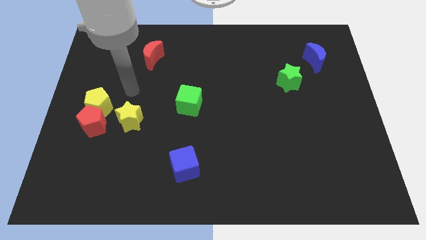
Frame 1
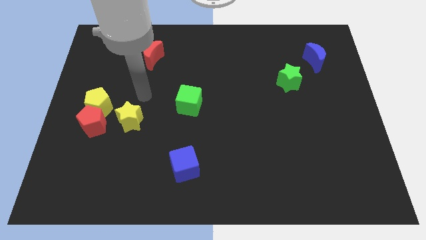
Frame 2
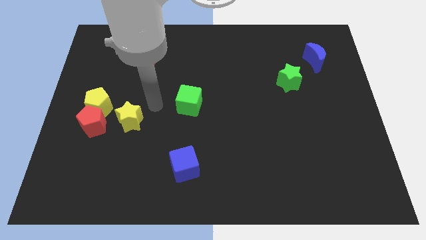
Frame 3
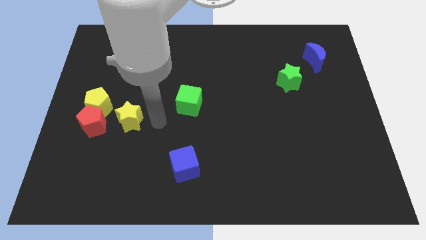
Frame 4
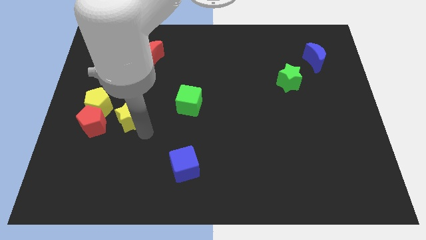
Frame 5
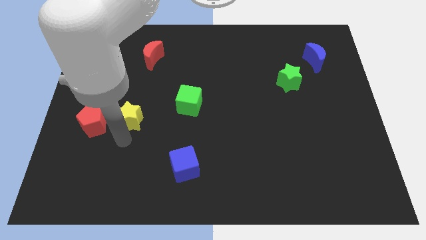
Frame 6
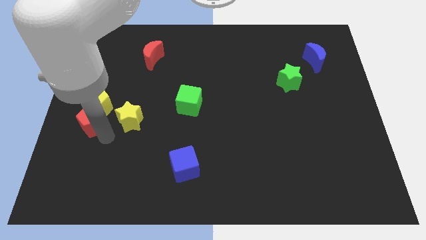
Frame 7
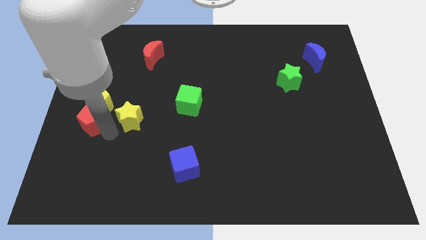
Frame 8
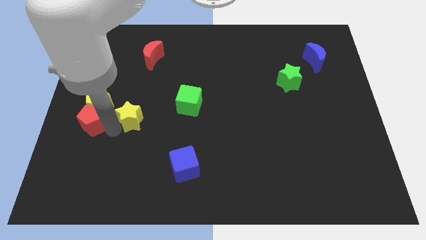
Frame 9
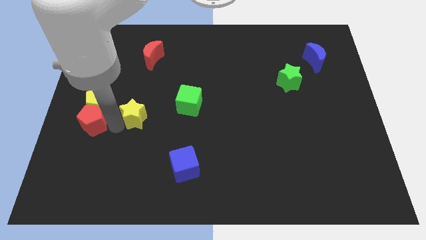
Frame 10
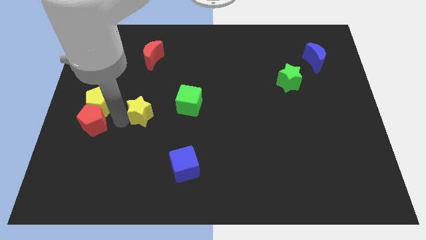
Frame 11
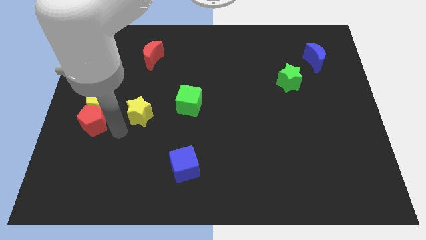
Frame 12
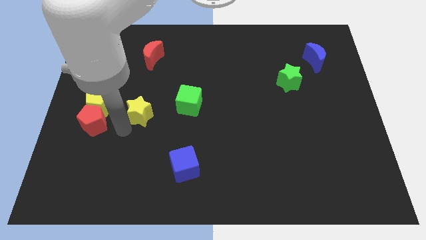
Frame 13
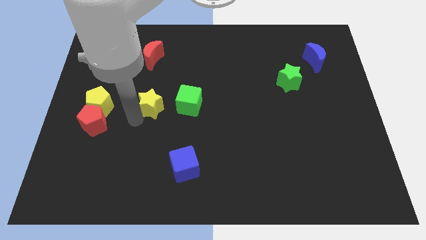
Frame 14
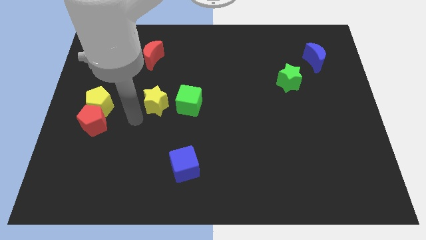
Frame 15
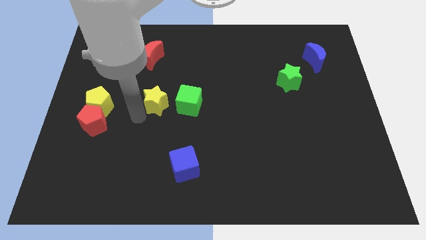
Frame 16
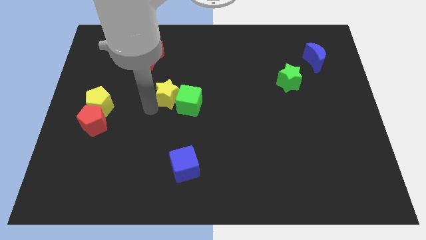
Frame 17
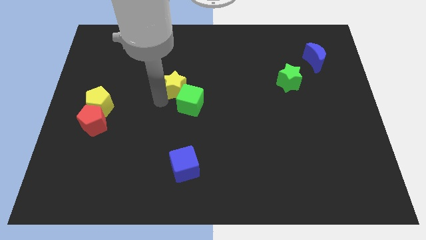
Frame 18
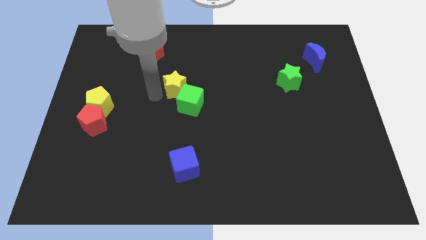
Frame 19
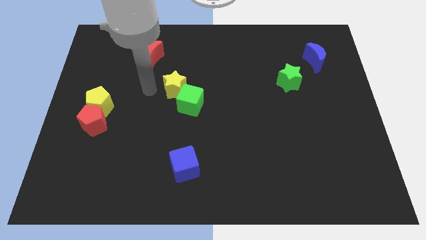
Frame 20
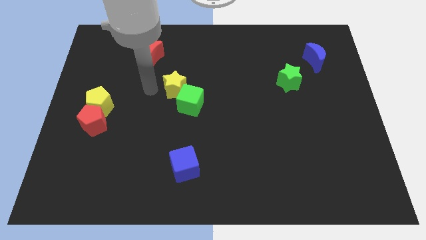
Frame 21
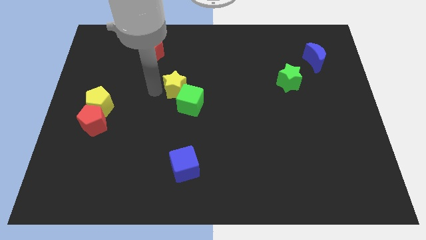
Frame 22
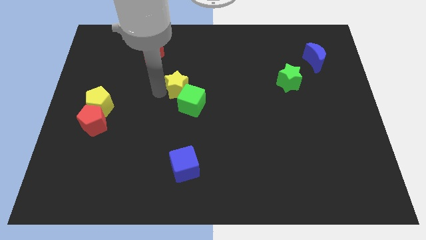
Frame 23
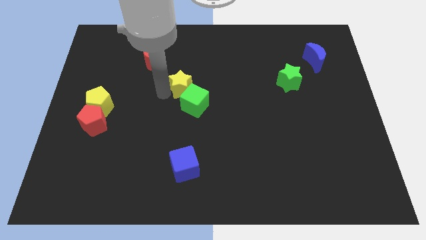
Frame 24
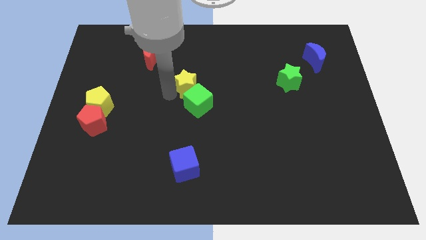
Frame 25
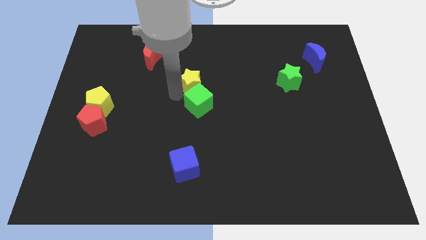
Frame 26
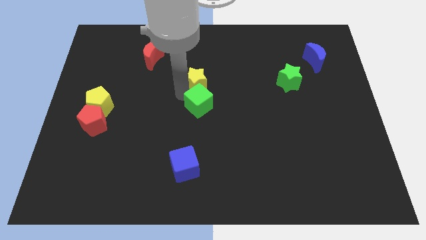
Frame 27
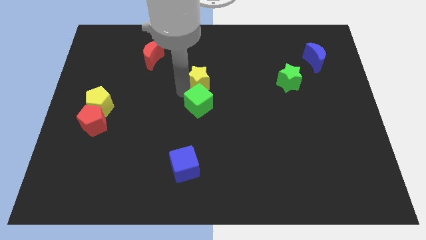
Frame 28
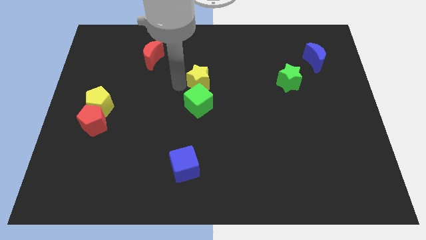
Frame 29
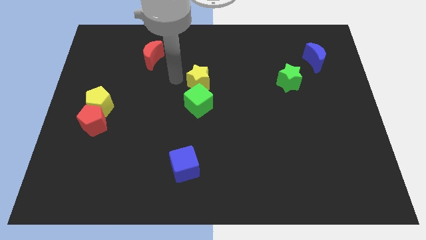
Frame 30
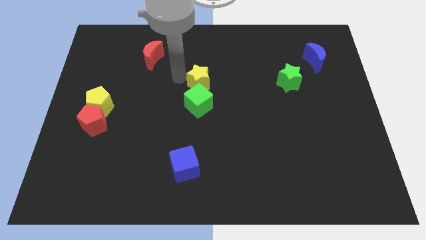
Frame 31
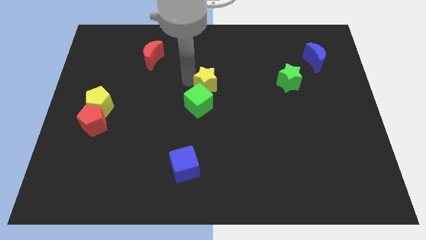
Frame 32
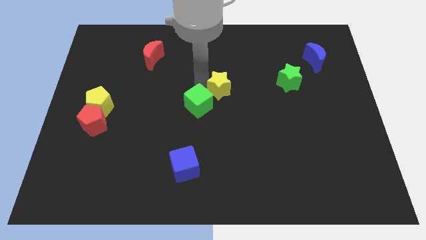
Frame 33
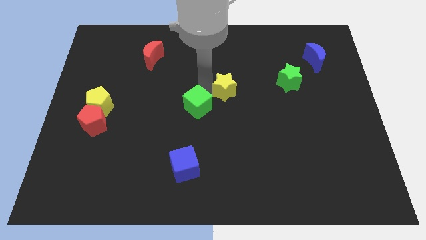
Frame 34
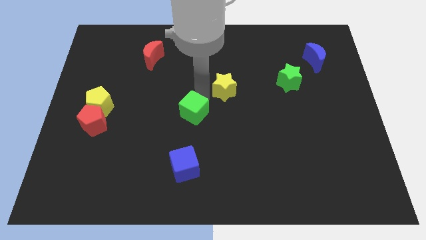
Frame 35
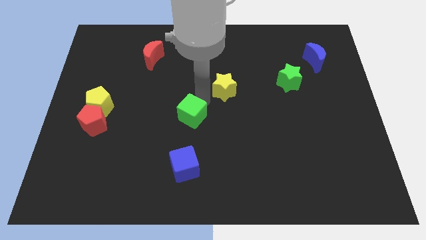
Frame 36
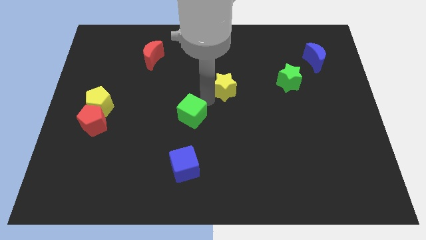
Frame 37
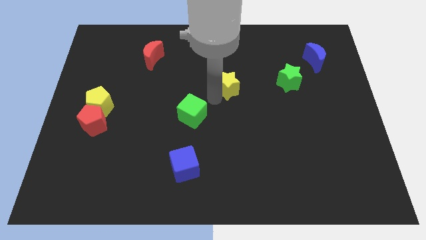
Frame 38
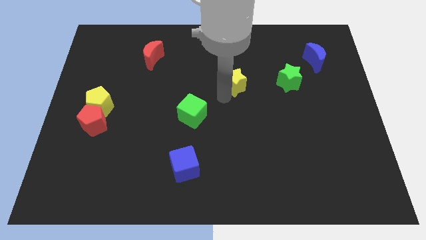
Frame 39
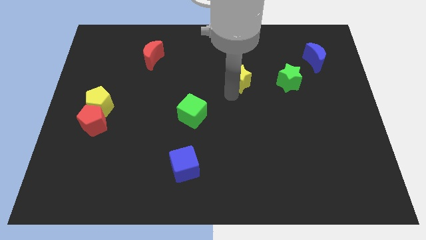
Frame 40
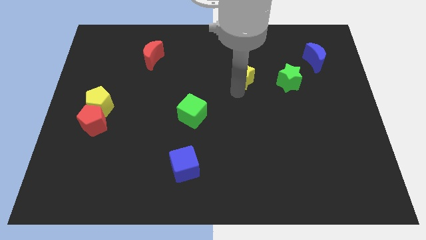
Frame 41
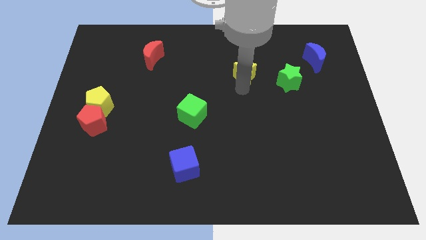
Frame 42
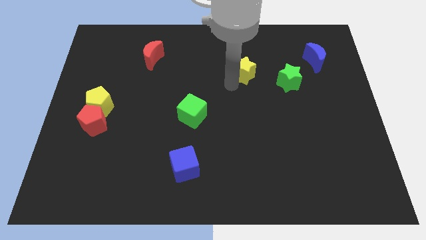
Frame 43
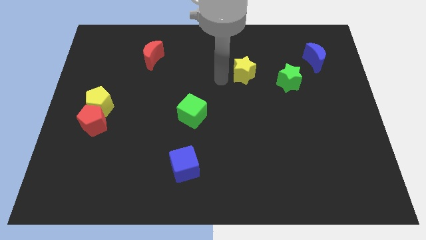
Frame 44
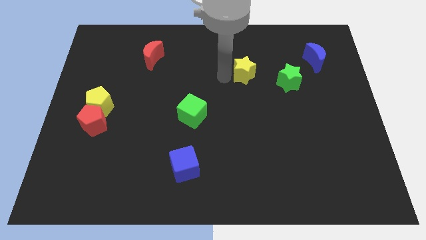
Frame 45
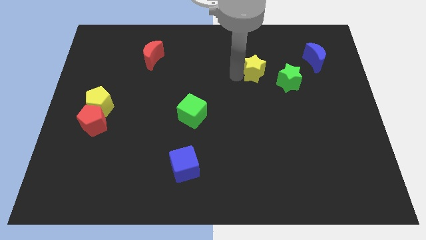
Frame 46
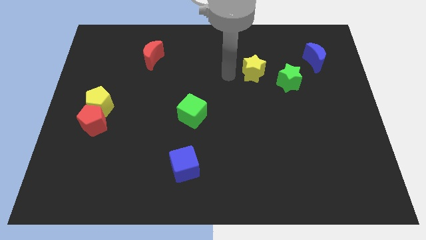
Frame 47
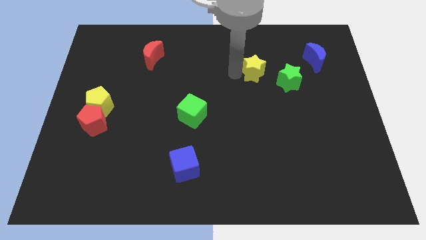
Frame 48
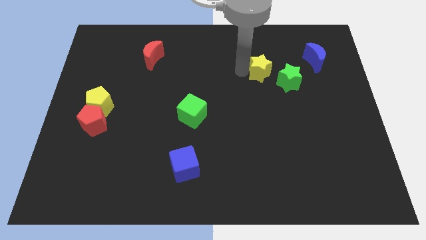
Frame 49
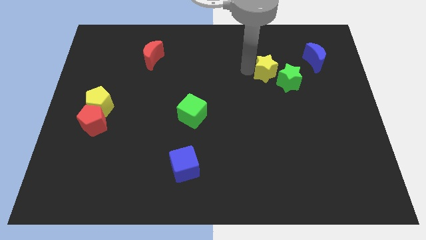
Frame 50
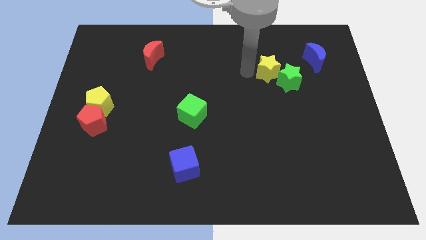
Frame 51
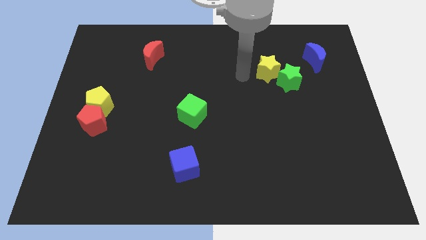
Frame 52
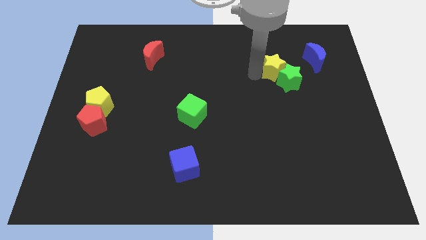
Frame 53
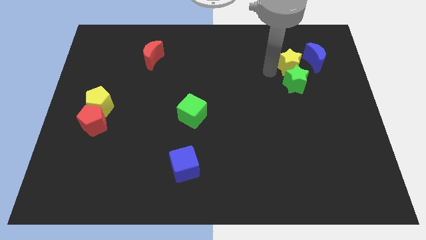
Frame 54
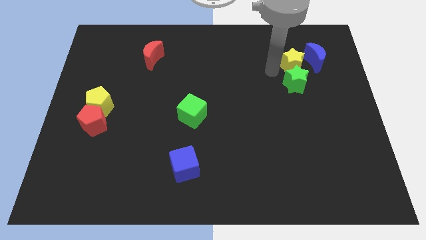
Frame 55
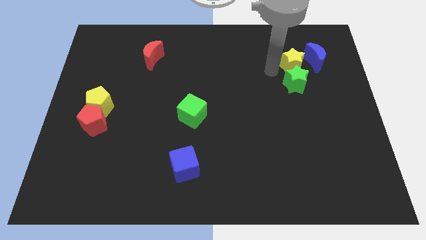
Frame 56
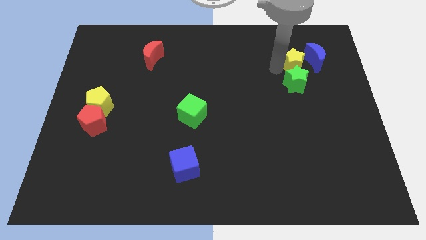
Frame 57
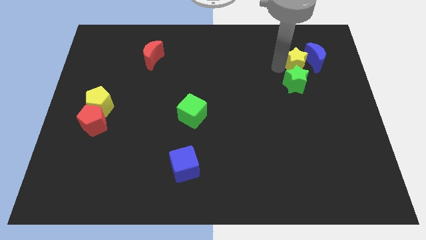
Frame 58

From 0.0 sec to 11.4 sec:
push the yellow star towards the blue moon

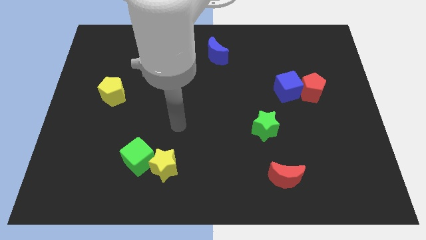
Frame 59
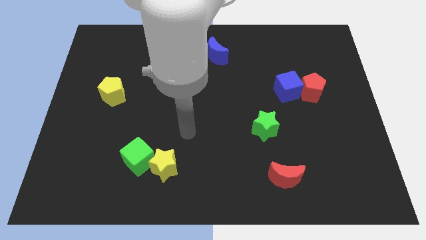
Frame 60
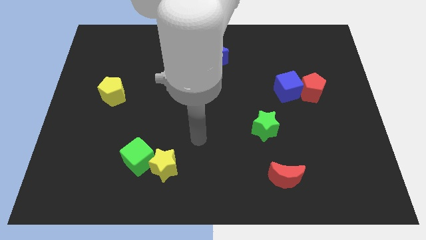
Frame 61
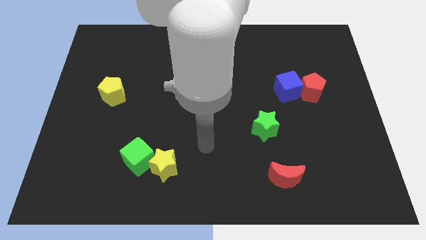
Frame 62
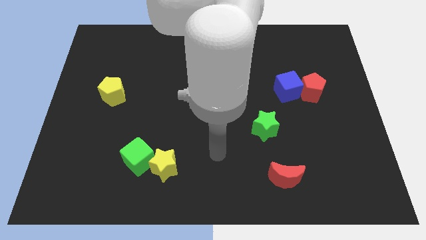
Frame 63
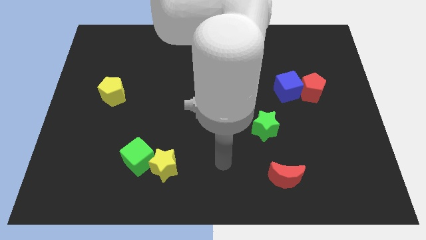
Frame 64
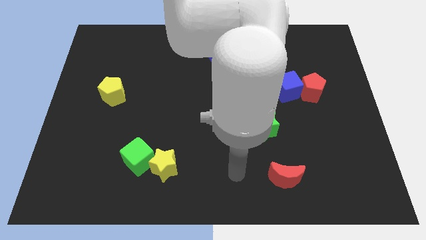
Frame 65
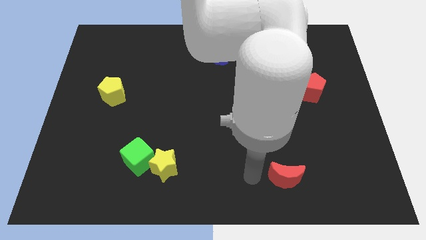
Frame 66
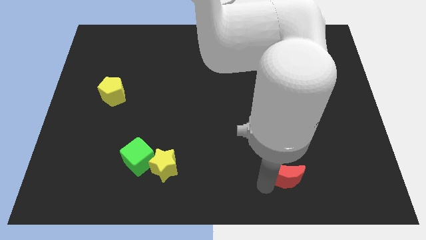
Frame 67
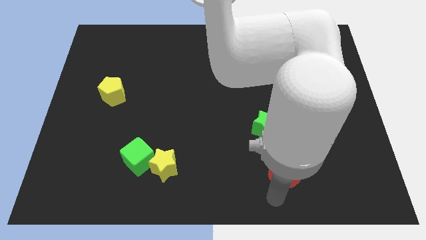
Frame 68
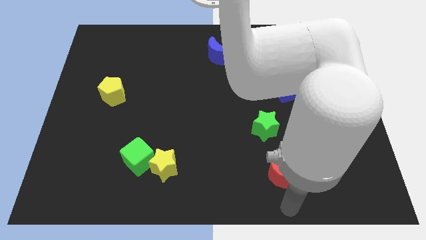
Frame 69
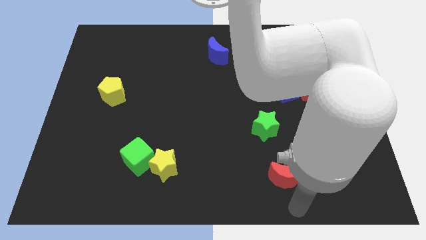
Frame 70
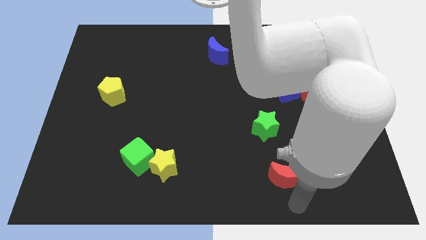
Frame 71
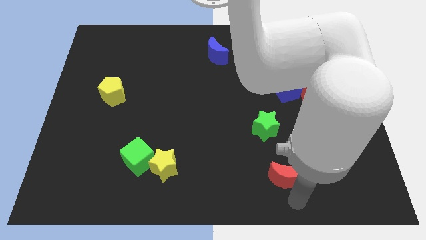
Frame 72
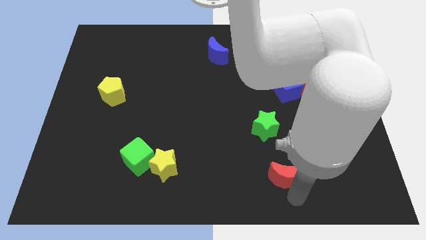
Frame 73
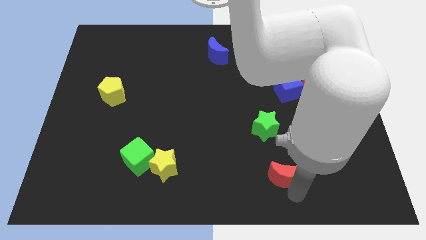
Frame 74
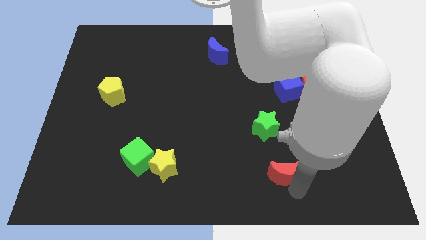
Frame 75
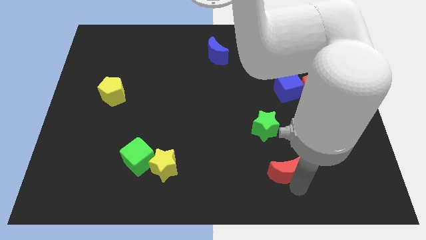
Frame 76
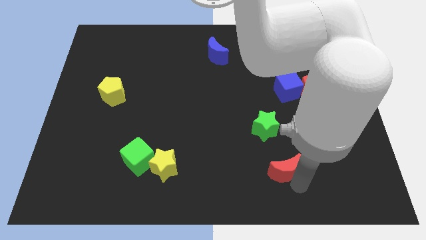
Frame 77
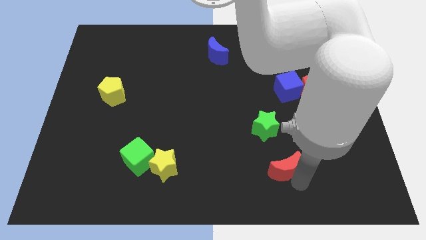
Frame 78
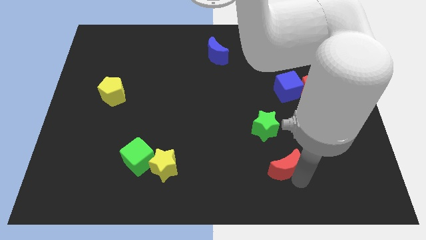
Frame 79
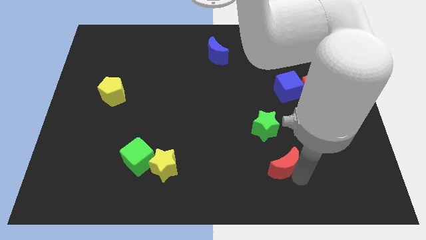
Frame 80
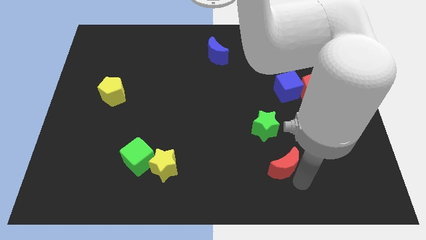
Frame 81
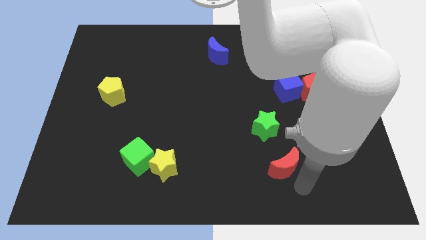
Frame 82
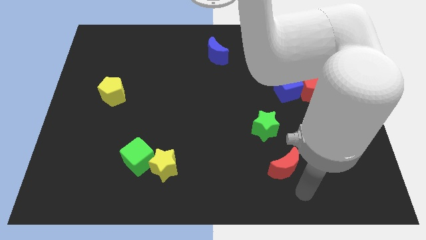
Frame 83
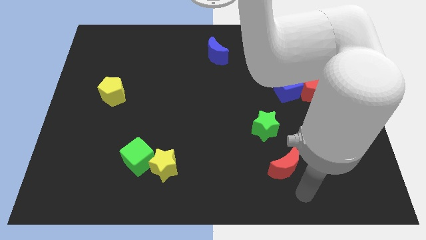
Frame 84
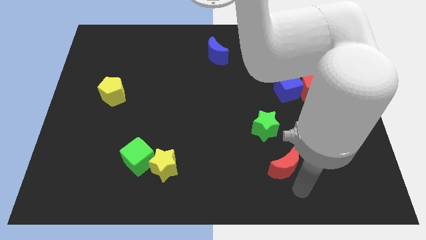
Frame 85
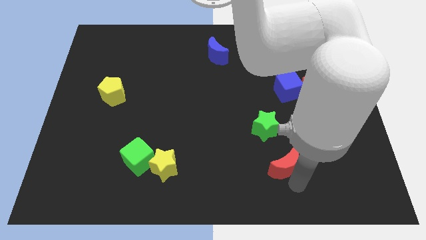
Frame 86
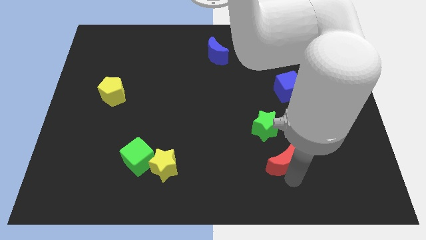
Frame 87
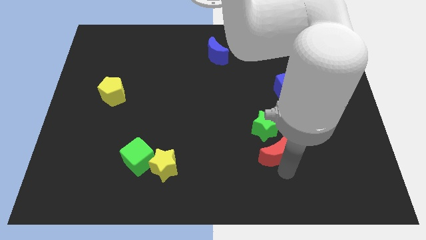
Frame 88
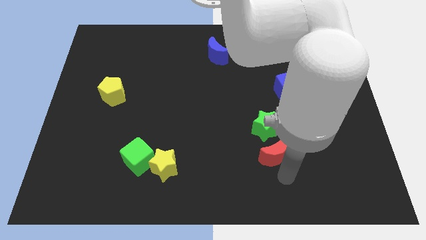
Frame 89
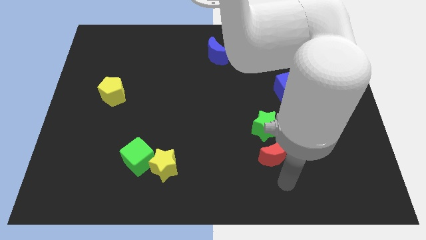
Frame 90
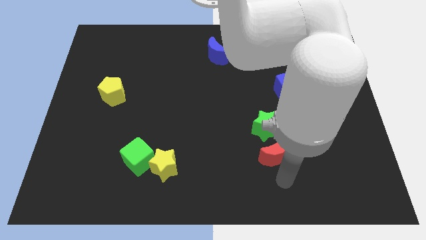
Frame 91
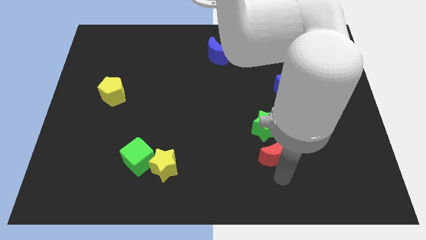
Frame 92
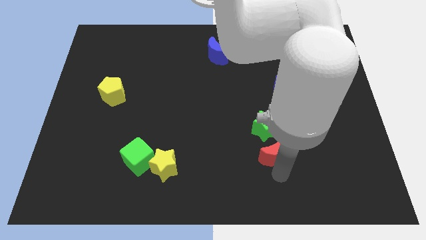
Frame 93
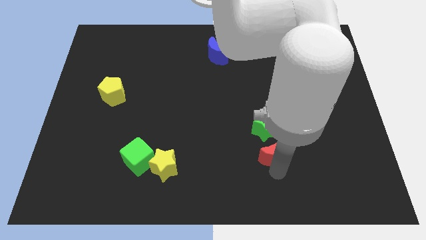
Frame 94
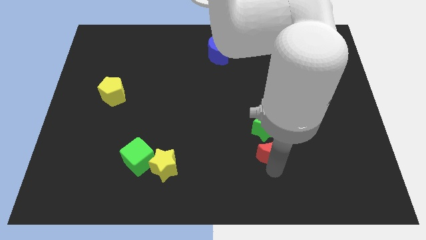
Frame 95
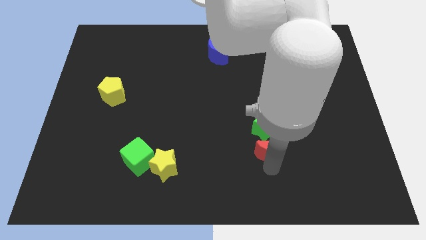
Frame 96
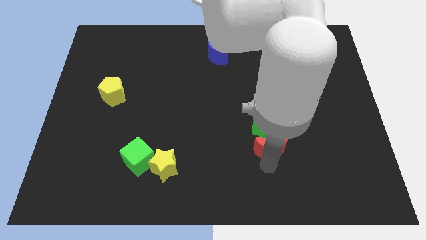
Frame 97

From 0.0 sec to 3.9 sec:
push the red moon towards the green star
